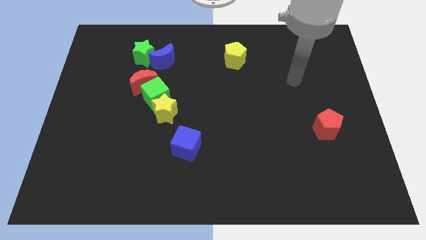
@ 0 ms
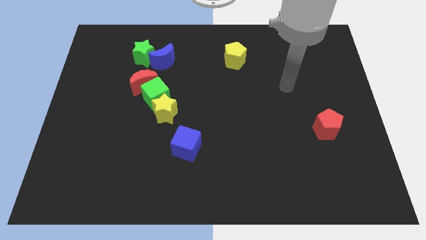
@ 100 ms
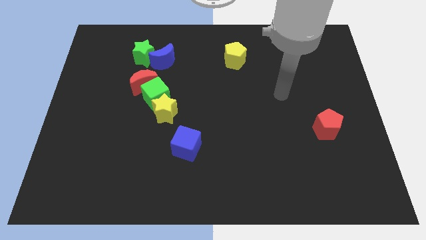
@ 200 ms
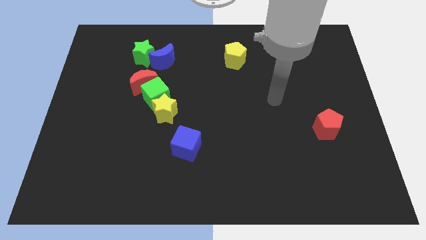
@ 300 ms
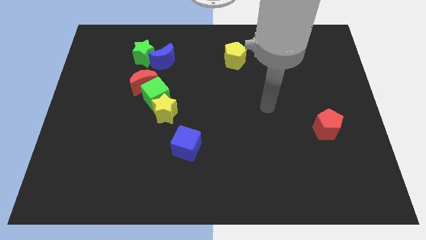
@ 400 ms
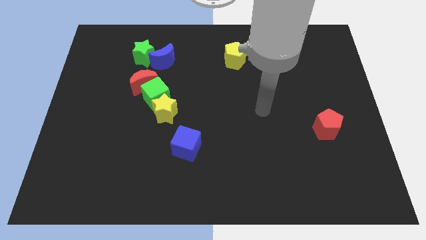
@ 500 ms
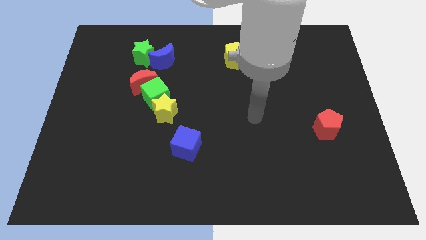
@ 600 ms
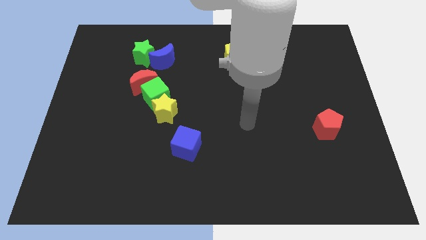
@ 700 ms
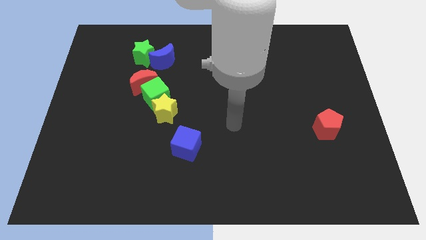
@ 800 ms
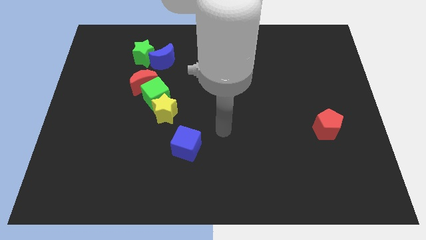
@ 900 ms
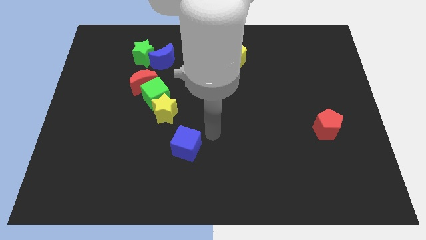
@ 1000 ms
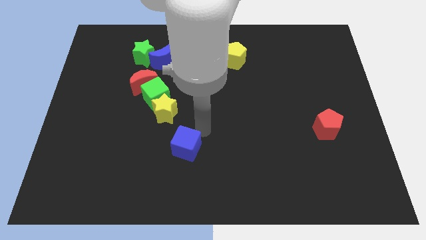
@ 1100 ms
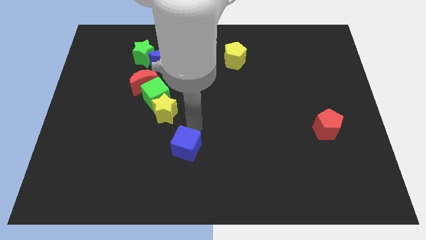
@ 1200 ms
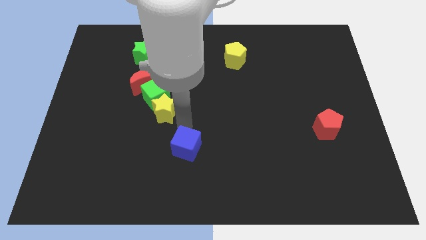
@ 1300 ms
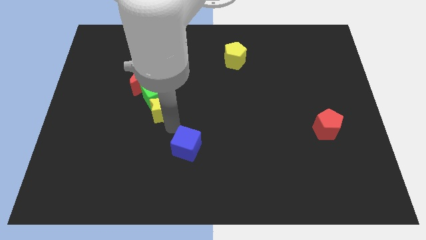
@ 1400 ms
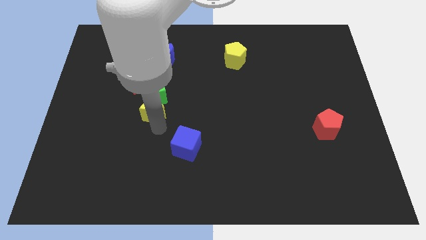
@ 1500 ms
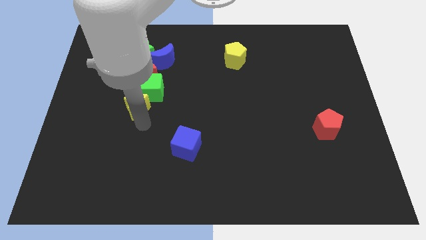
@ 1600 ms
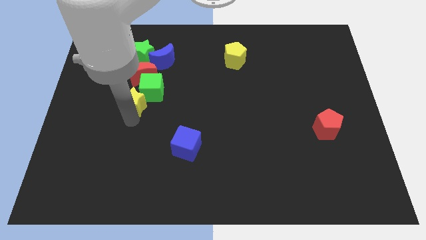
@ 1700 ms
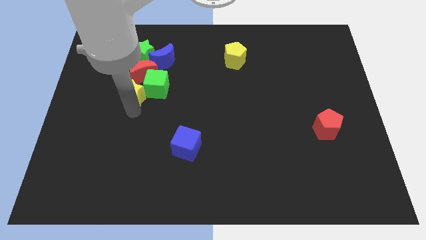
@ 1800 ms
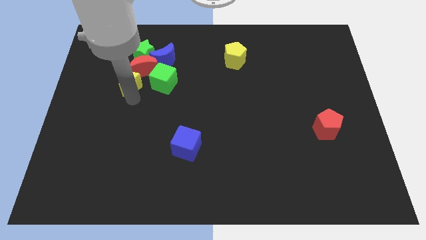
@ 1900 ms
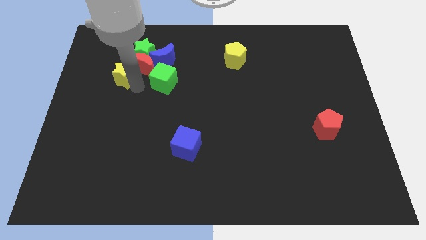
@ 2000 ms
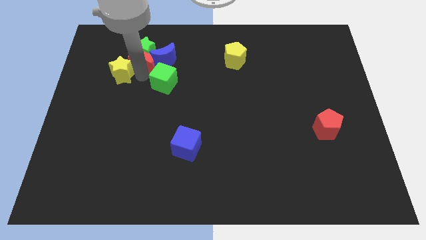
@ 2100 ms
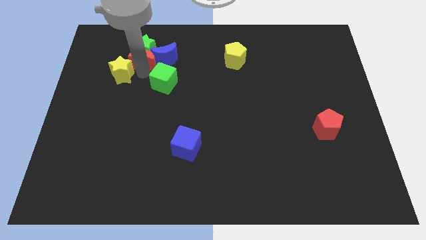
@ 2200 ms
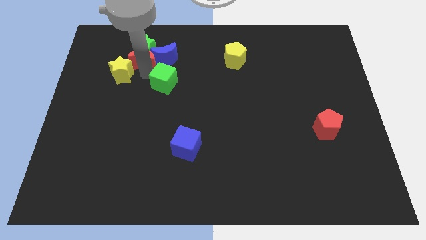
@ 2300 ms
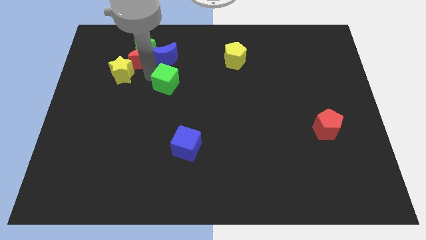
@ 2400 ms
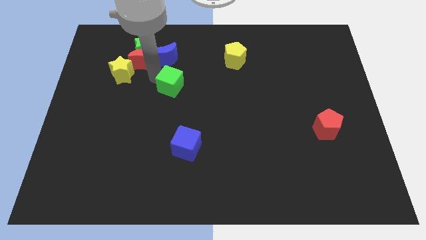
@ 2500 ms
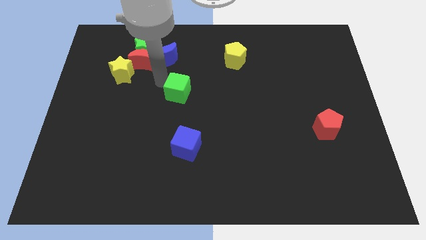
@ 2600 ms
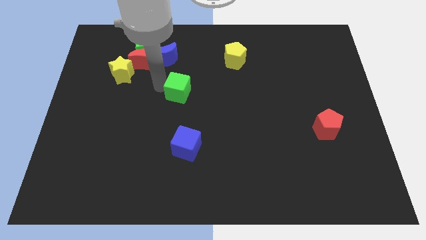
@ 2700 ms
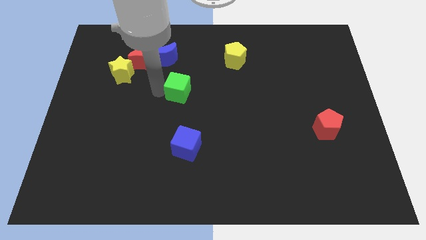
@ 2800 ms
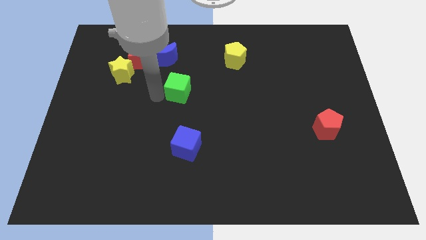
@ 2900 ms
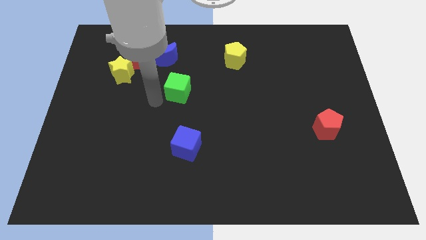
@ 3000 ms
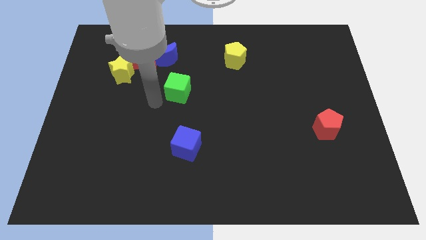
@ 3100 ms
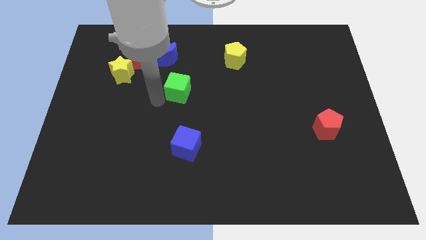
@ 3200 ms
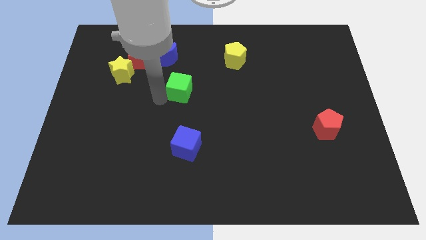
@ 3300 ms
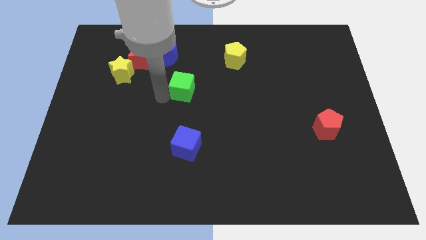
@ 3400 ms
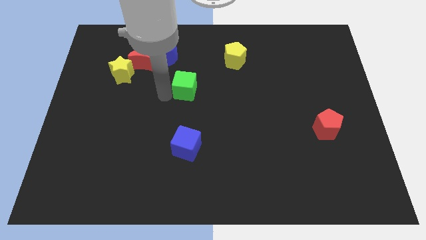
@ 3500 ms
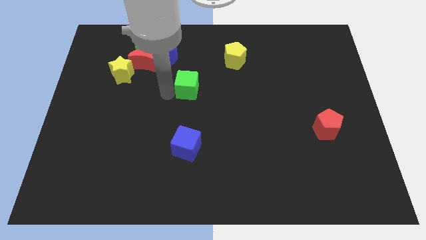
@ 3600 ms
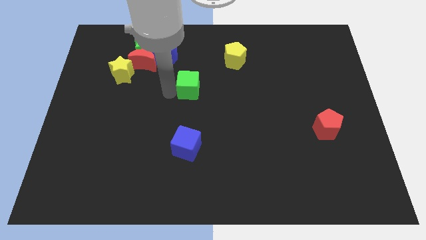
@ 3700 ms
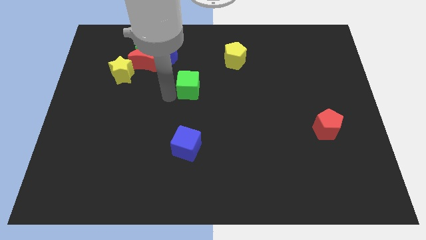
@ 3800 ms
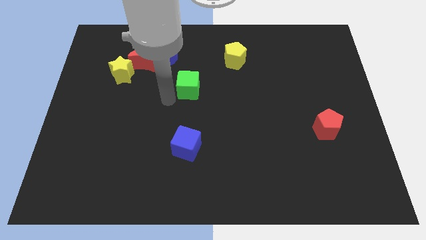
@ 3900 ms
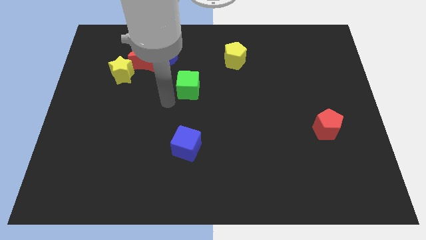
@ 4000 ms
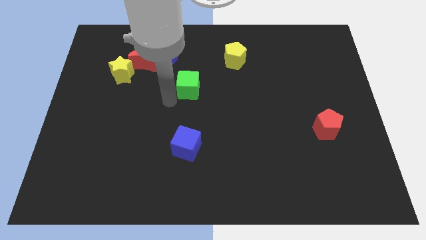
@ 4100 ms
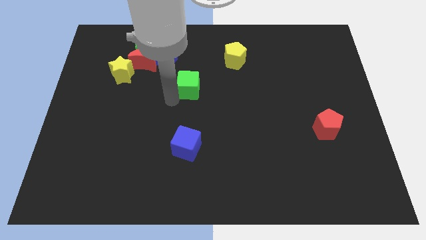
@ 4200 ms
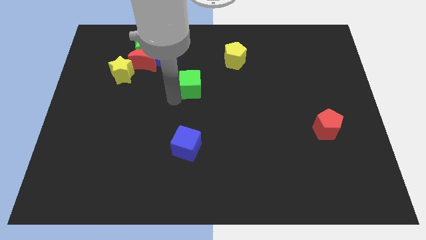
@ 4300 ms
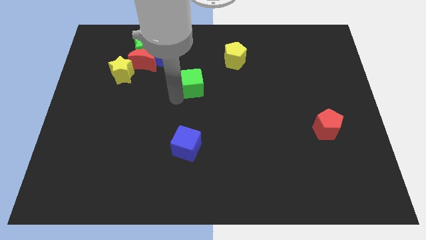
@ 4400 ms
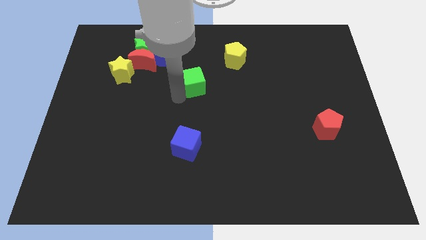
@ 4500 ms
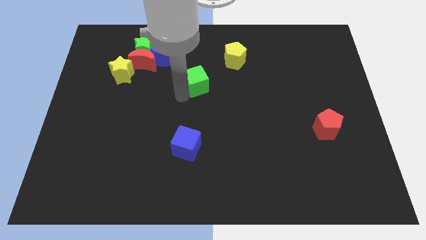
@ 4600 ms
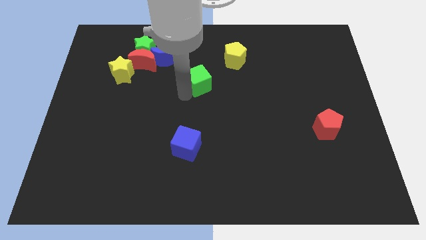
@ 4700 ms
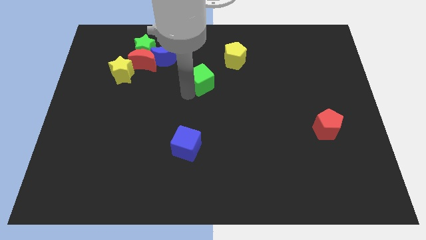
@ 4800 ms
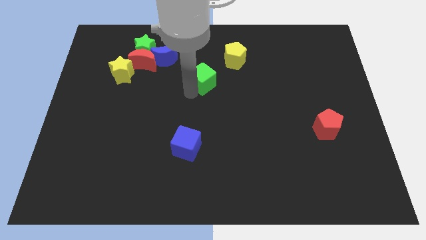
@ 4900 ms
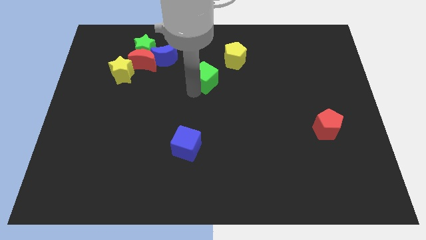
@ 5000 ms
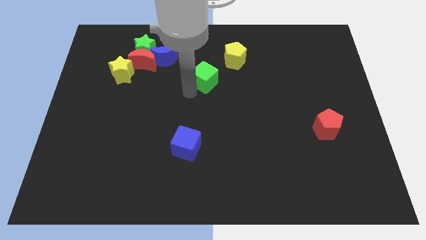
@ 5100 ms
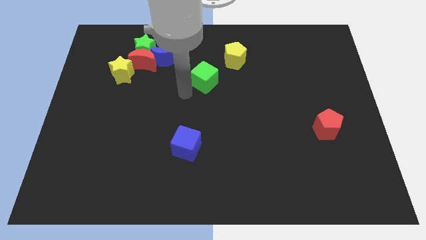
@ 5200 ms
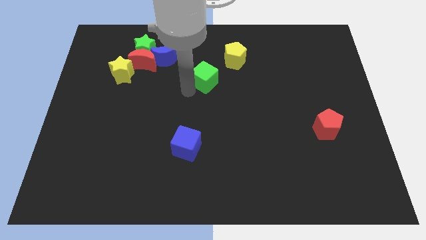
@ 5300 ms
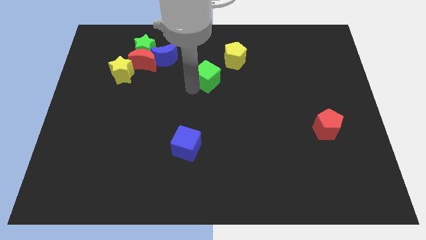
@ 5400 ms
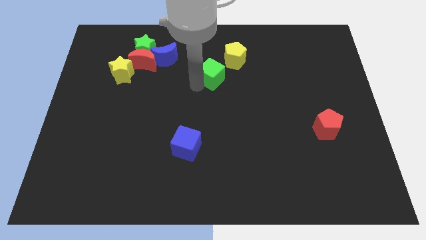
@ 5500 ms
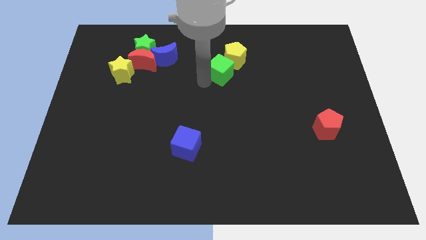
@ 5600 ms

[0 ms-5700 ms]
slide the green cube close to the yellow pentagon

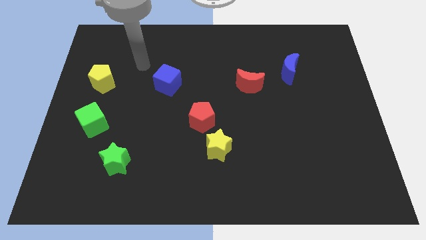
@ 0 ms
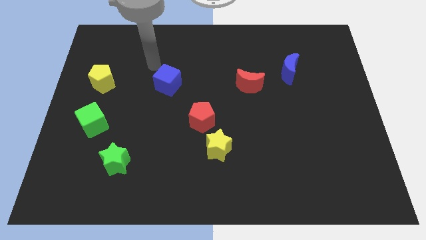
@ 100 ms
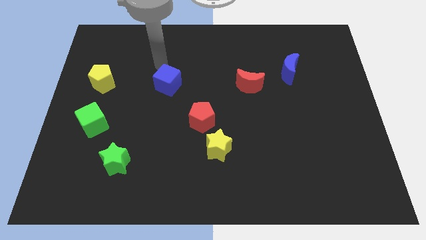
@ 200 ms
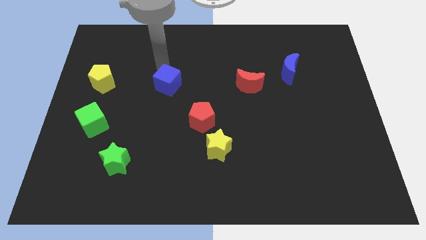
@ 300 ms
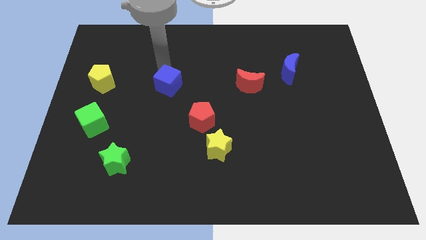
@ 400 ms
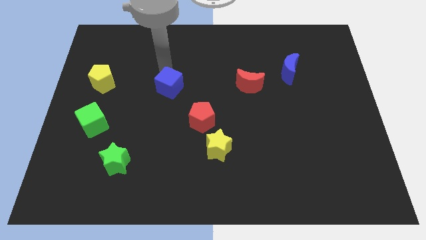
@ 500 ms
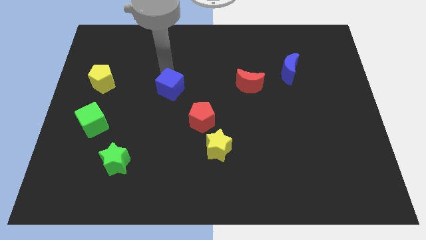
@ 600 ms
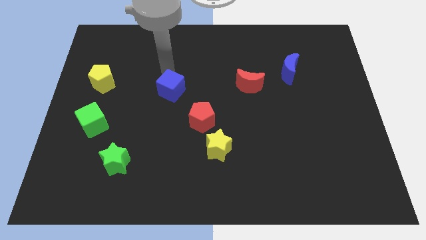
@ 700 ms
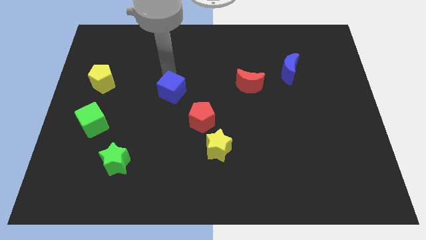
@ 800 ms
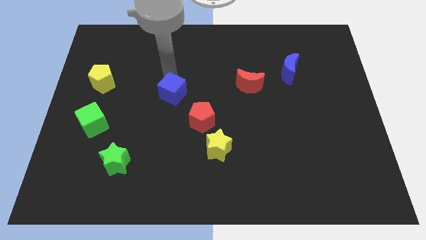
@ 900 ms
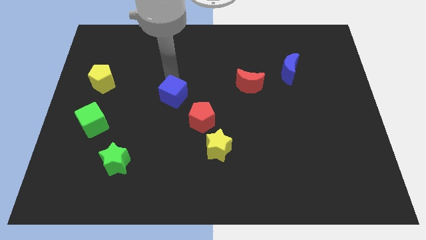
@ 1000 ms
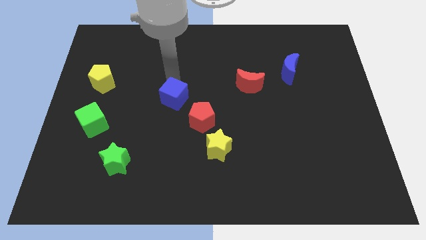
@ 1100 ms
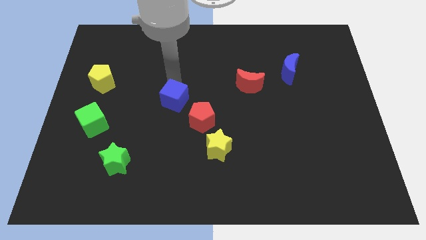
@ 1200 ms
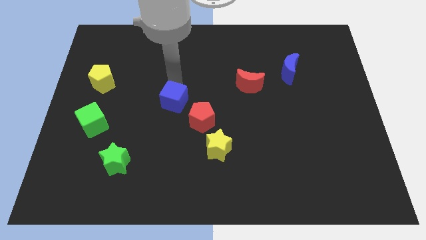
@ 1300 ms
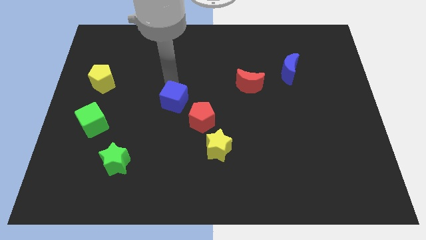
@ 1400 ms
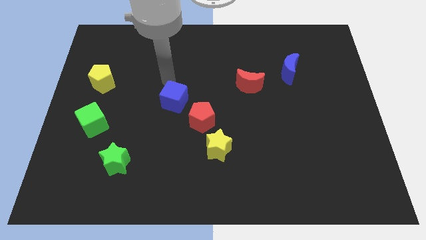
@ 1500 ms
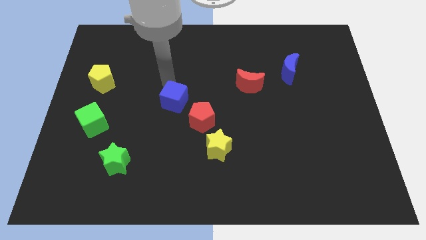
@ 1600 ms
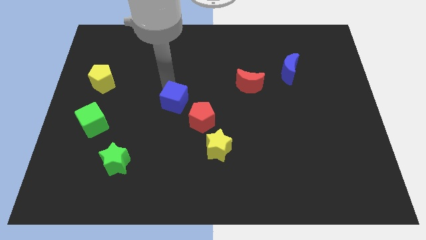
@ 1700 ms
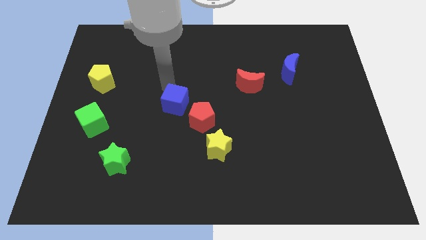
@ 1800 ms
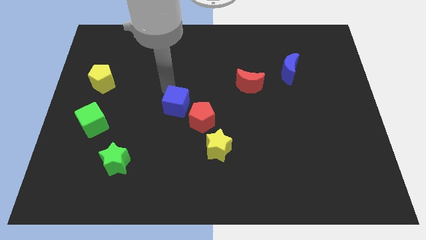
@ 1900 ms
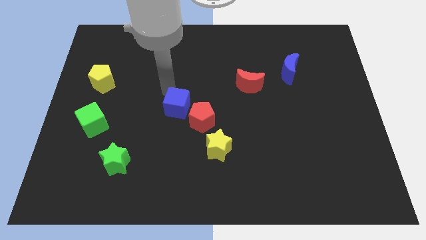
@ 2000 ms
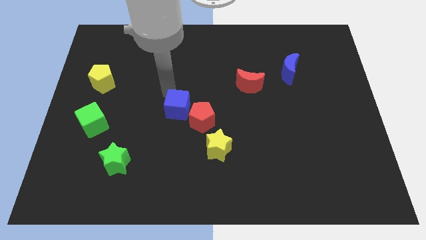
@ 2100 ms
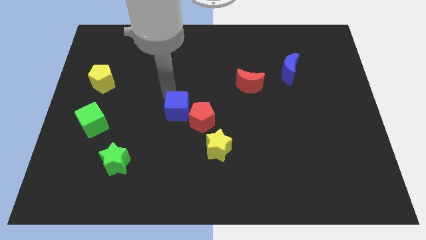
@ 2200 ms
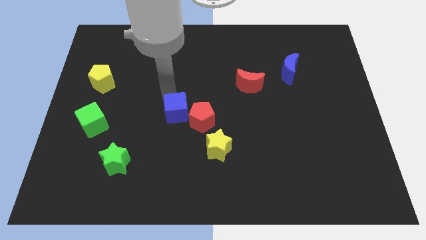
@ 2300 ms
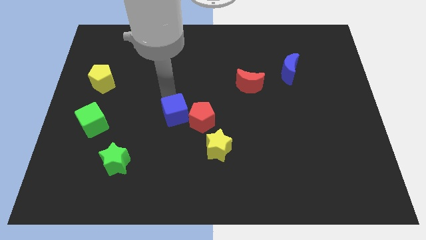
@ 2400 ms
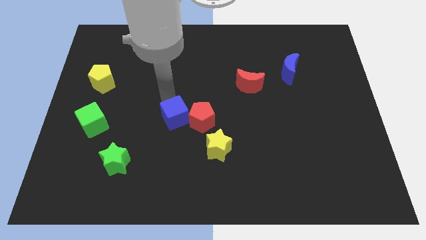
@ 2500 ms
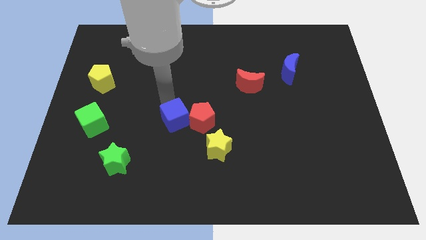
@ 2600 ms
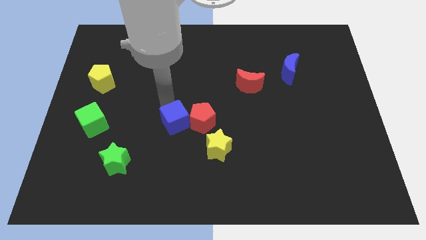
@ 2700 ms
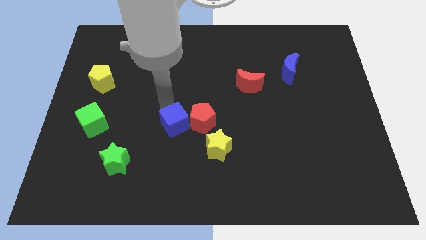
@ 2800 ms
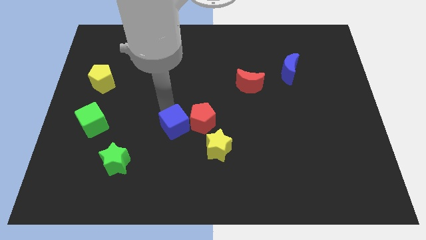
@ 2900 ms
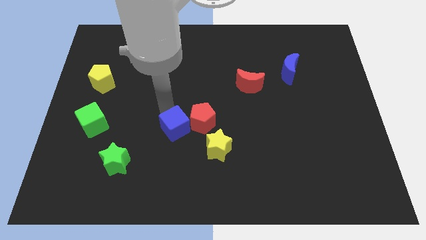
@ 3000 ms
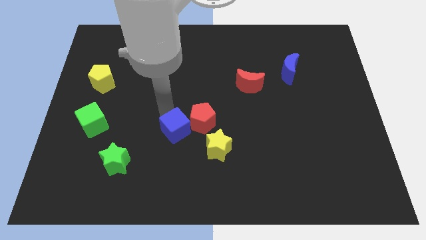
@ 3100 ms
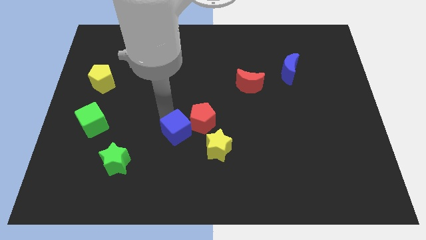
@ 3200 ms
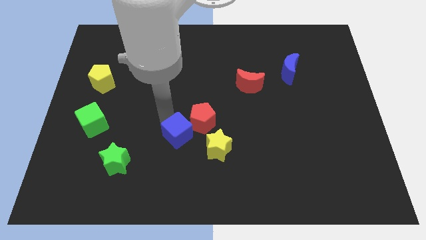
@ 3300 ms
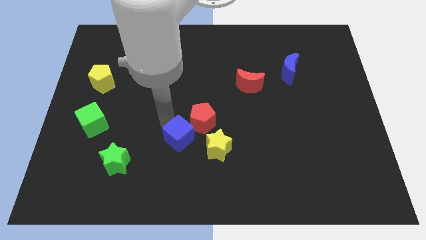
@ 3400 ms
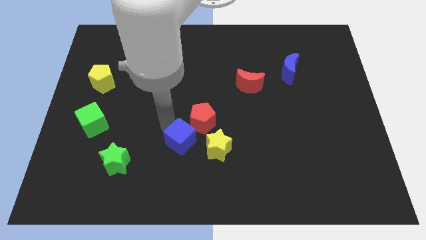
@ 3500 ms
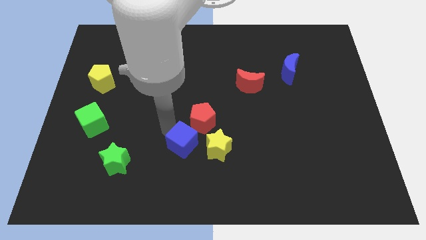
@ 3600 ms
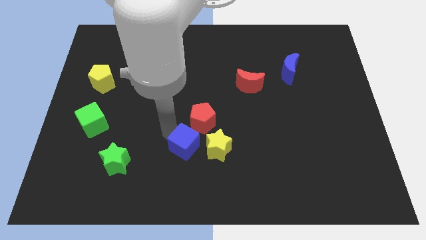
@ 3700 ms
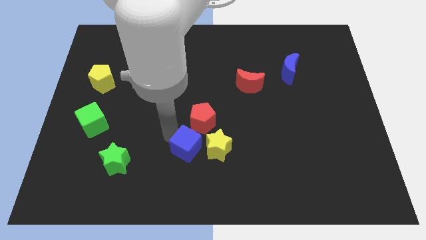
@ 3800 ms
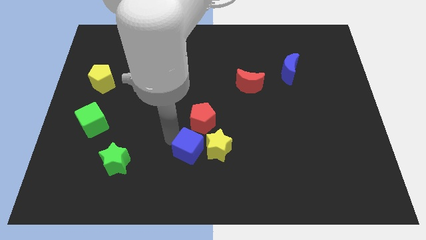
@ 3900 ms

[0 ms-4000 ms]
put the blue cube towards the yellow star
